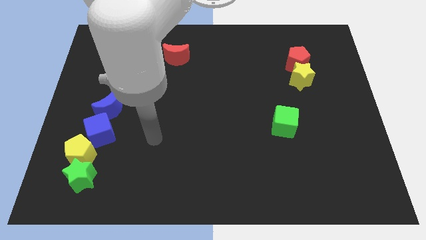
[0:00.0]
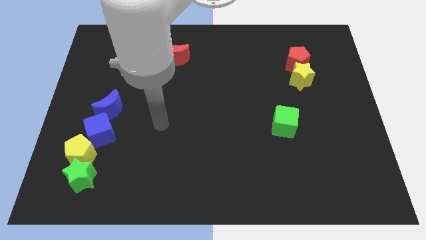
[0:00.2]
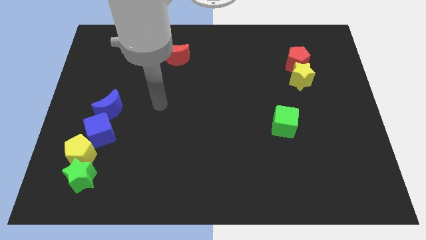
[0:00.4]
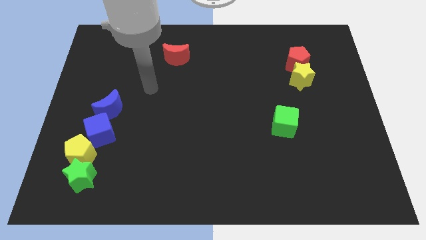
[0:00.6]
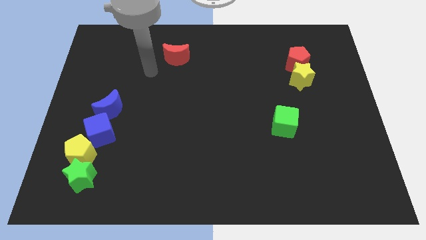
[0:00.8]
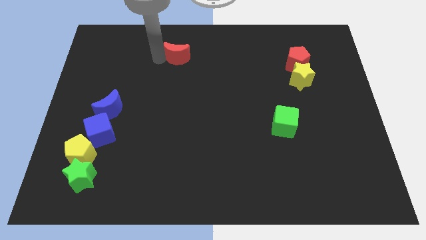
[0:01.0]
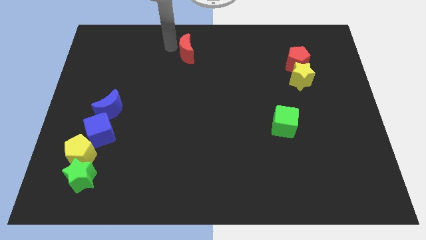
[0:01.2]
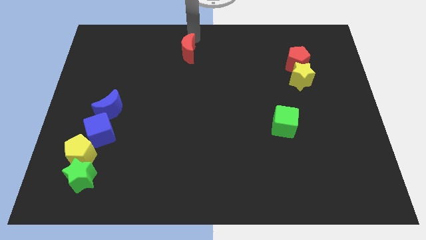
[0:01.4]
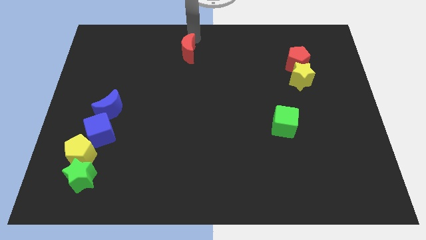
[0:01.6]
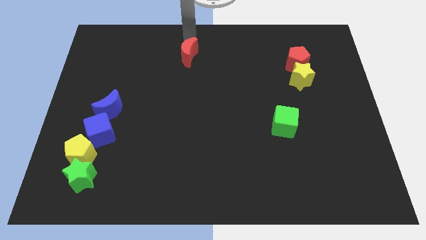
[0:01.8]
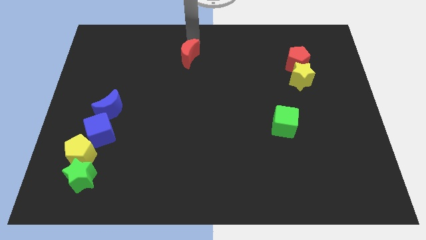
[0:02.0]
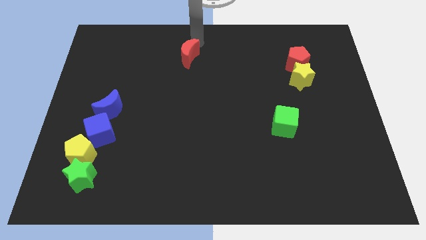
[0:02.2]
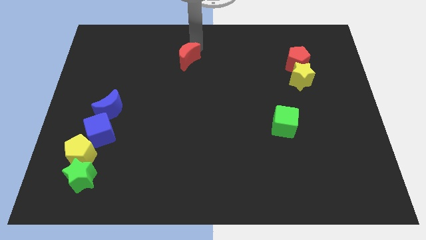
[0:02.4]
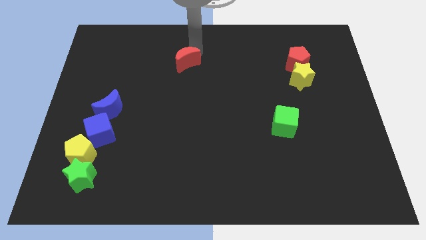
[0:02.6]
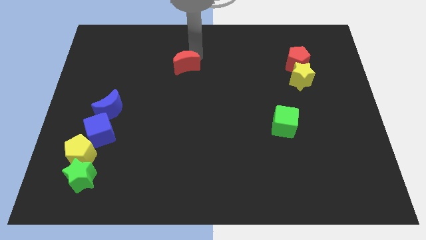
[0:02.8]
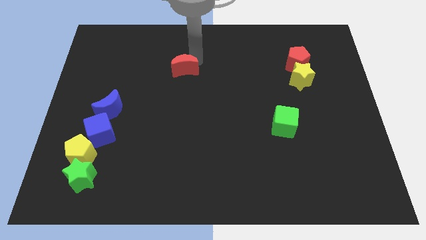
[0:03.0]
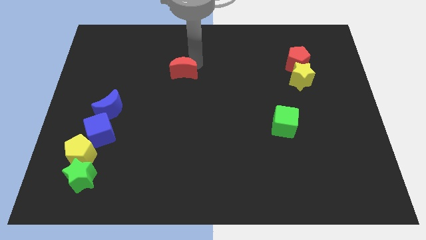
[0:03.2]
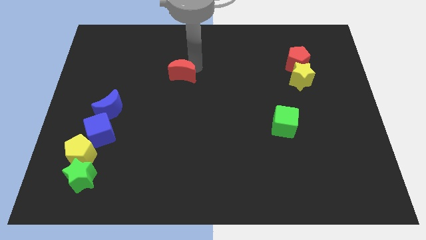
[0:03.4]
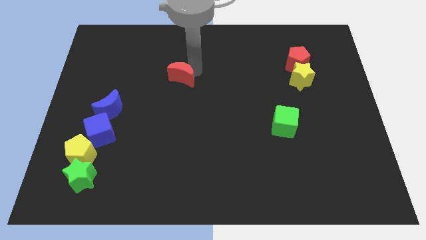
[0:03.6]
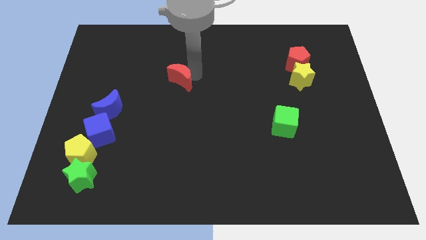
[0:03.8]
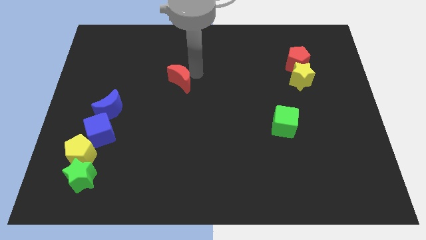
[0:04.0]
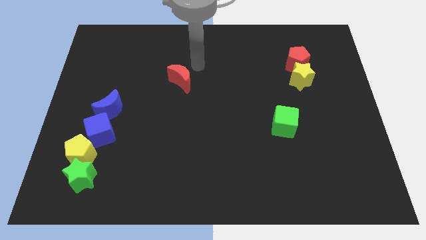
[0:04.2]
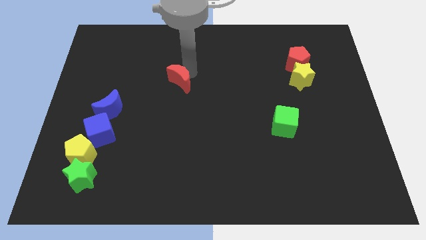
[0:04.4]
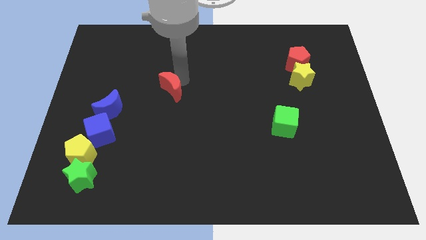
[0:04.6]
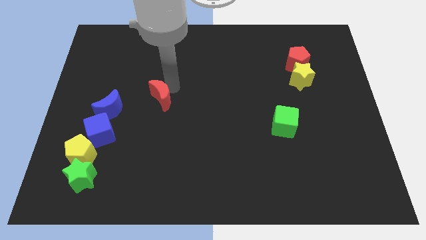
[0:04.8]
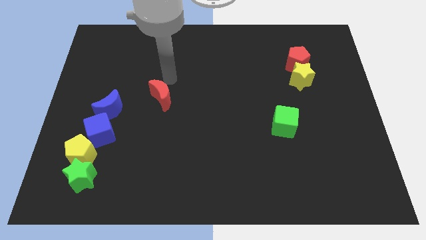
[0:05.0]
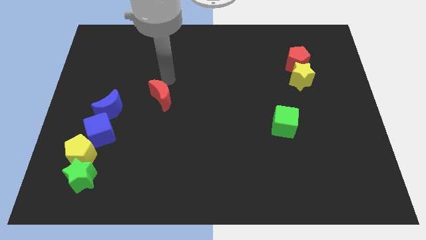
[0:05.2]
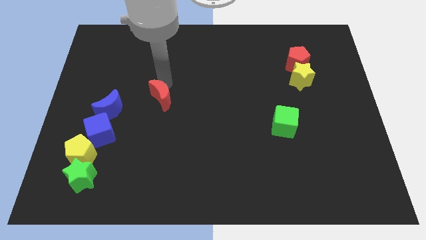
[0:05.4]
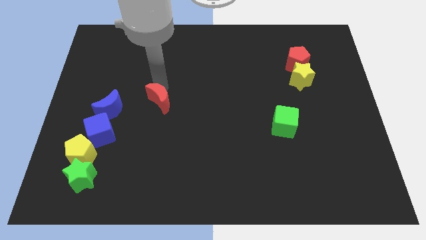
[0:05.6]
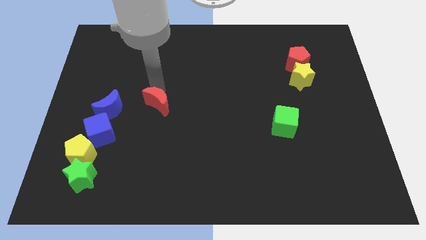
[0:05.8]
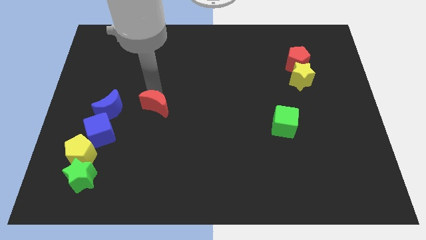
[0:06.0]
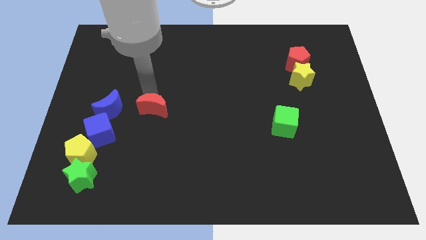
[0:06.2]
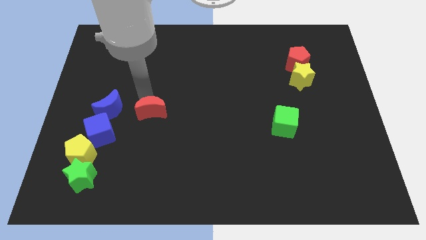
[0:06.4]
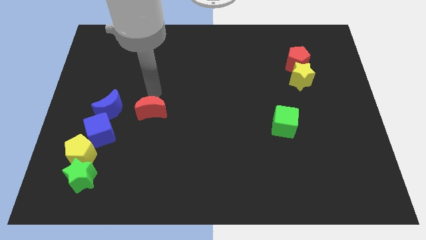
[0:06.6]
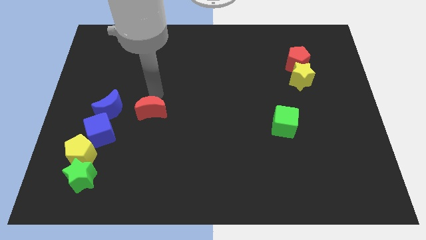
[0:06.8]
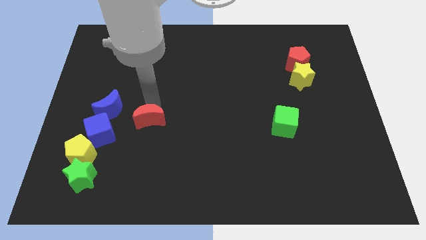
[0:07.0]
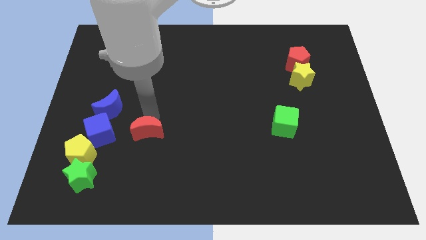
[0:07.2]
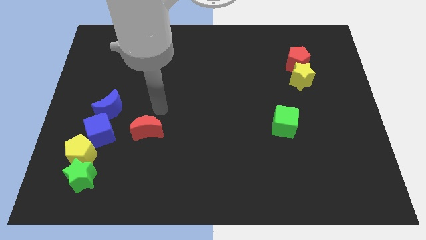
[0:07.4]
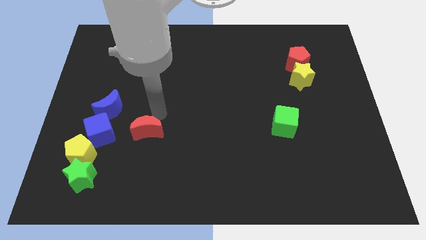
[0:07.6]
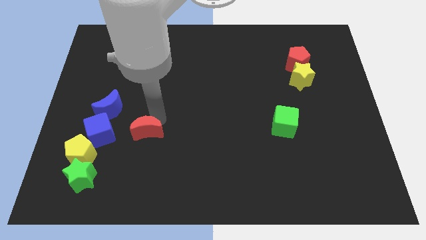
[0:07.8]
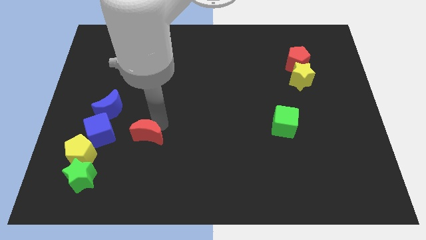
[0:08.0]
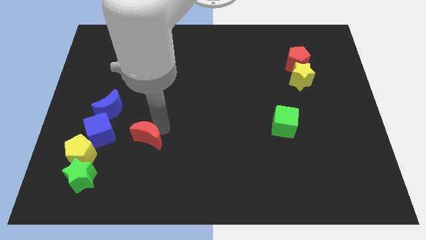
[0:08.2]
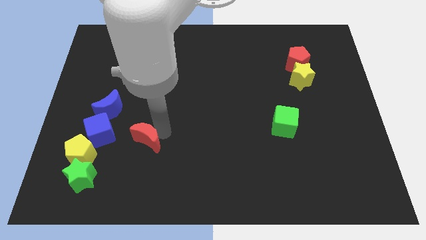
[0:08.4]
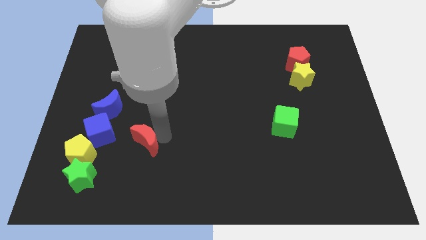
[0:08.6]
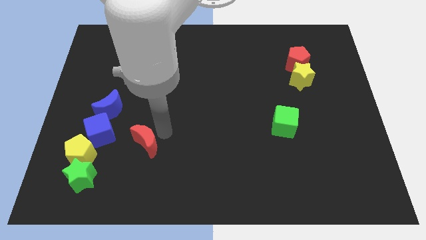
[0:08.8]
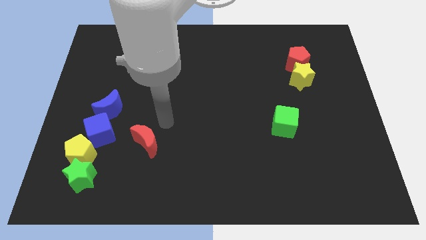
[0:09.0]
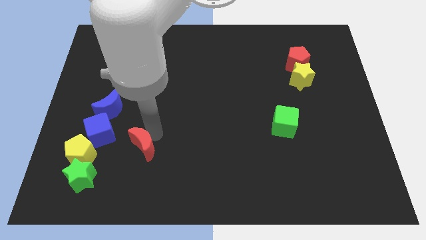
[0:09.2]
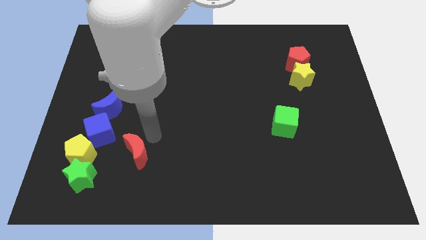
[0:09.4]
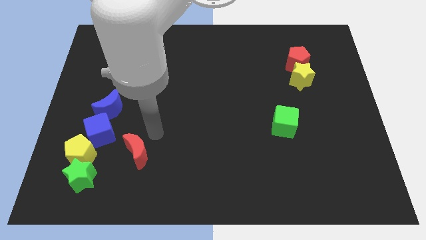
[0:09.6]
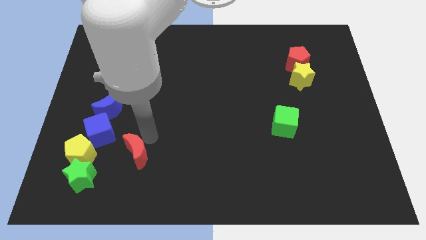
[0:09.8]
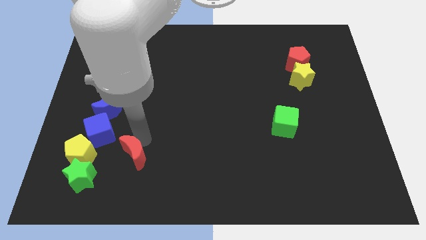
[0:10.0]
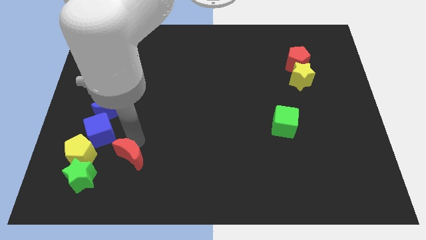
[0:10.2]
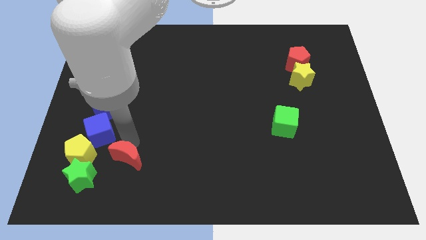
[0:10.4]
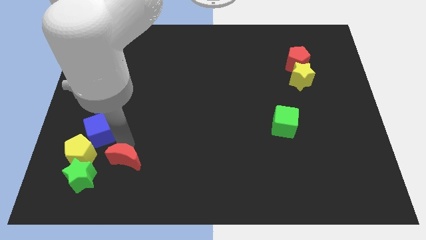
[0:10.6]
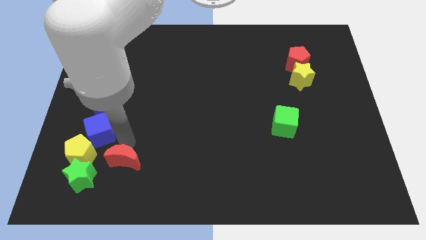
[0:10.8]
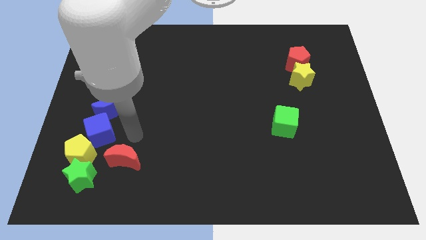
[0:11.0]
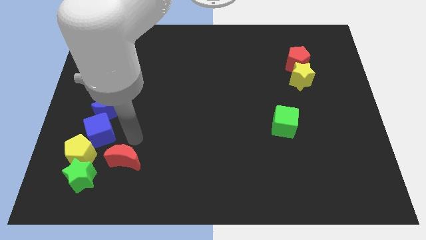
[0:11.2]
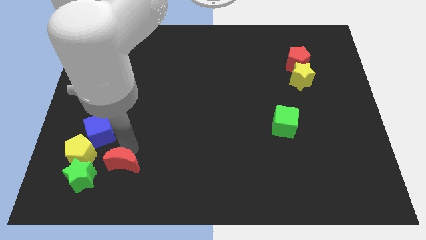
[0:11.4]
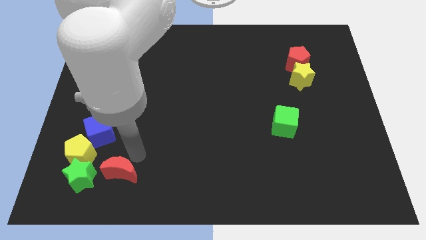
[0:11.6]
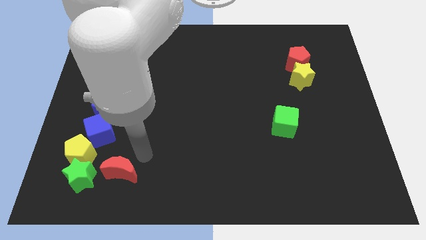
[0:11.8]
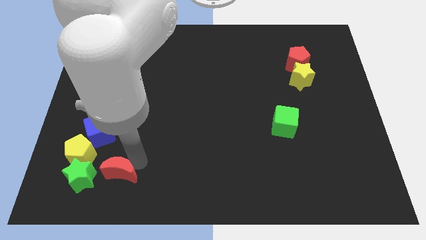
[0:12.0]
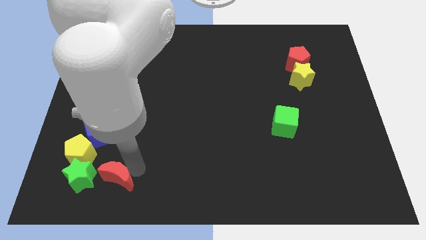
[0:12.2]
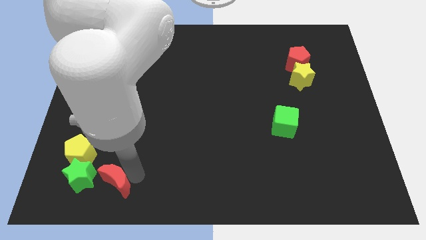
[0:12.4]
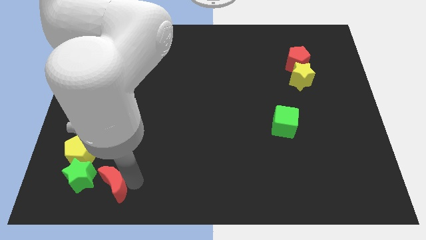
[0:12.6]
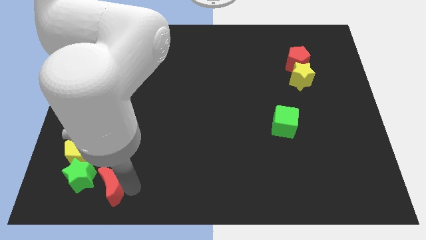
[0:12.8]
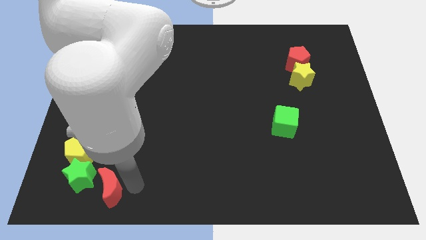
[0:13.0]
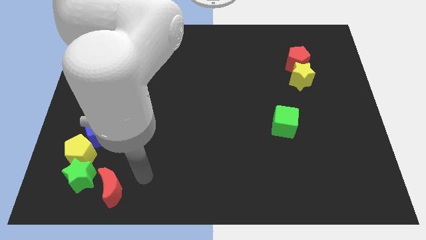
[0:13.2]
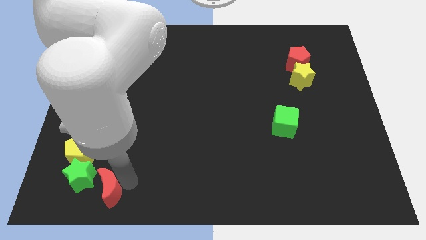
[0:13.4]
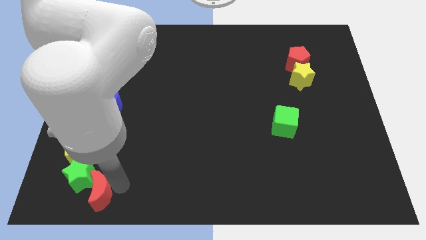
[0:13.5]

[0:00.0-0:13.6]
push the red moon below the blue cube
